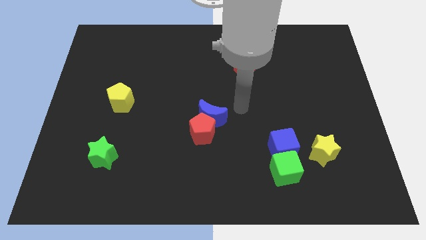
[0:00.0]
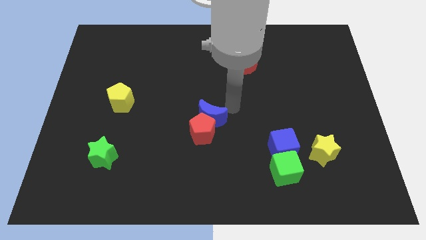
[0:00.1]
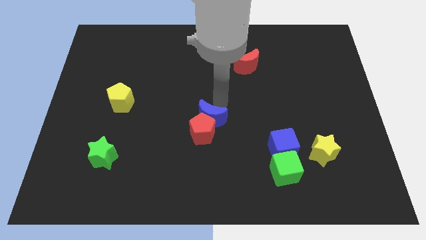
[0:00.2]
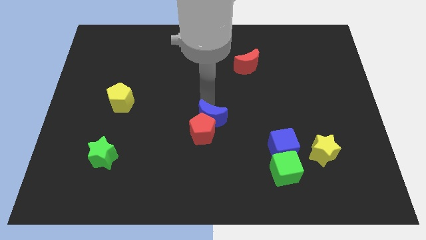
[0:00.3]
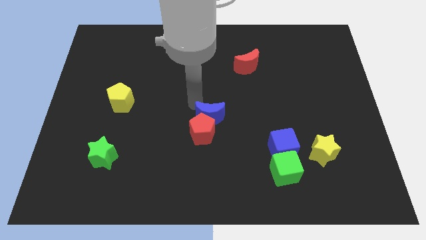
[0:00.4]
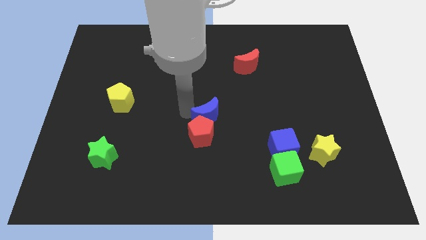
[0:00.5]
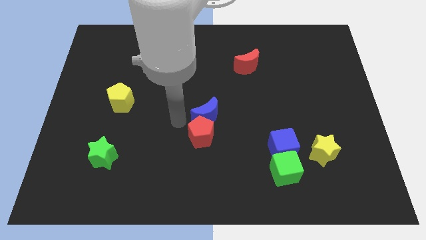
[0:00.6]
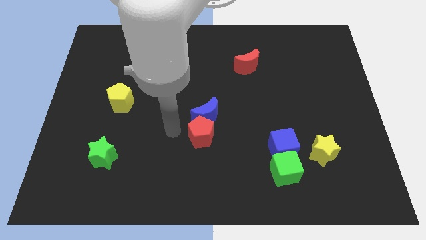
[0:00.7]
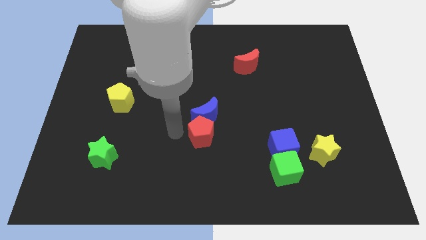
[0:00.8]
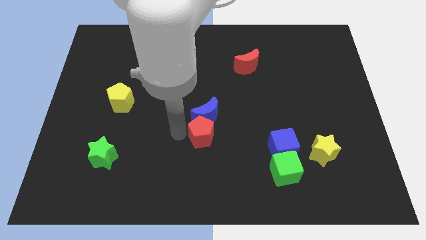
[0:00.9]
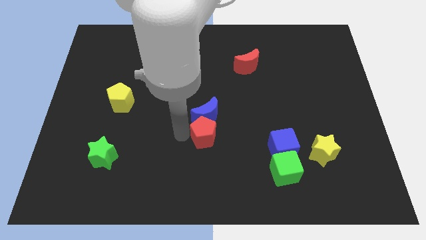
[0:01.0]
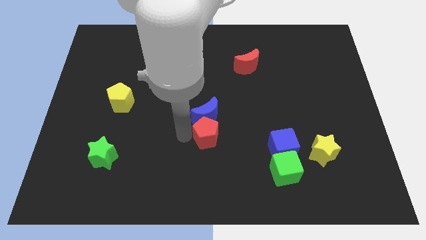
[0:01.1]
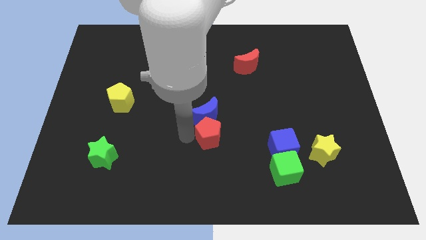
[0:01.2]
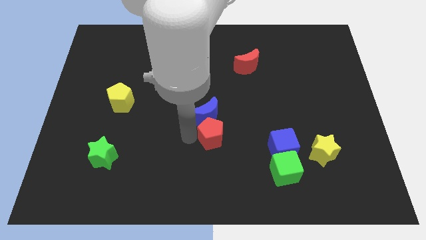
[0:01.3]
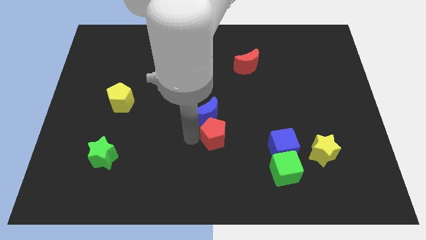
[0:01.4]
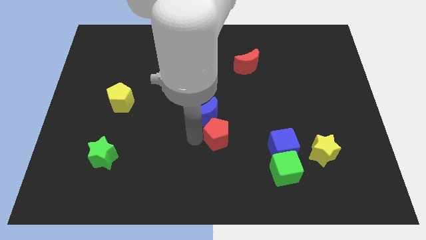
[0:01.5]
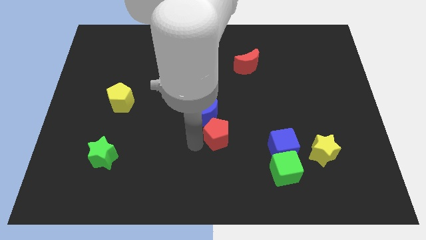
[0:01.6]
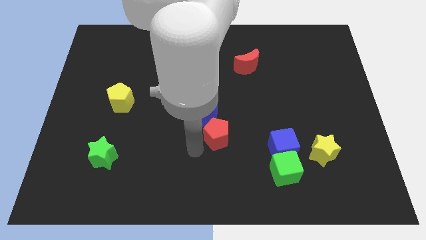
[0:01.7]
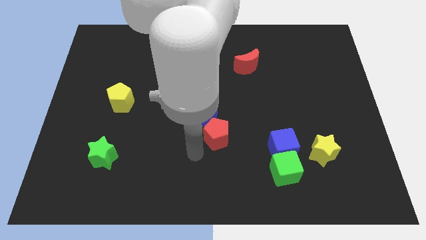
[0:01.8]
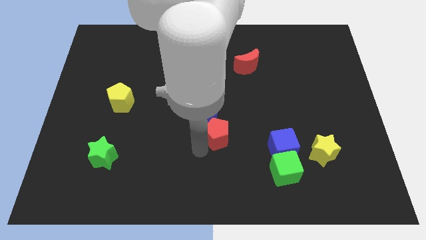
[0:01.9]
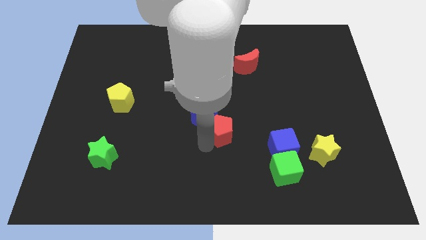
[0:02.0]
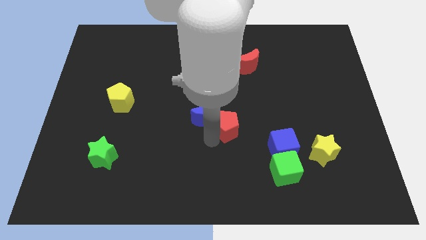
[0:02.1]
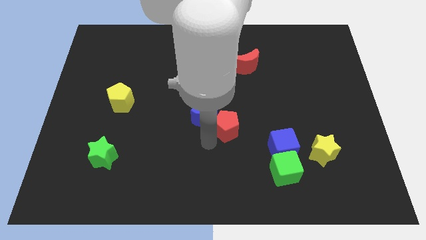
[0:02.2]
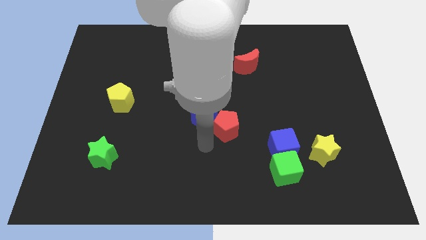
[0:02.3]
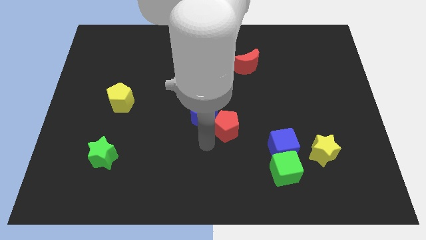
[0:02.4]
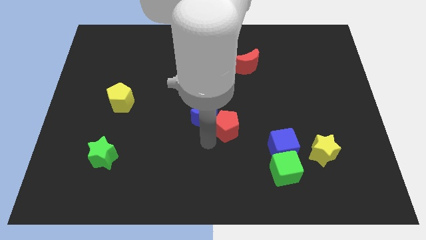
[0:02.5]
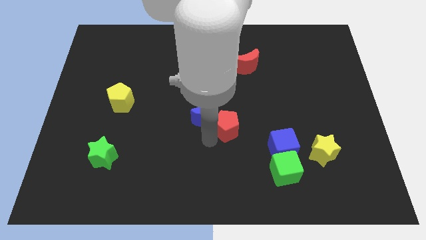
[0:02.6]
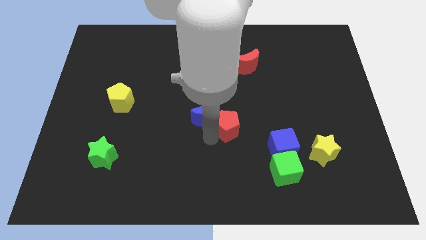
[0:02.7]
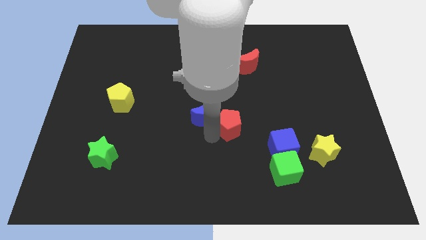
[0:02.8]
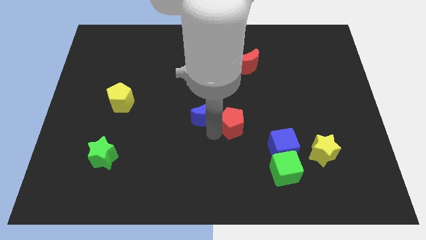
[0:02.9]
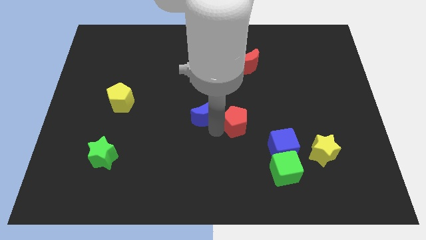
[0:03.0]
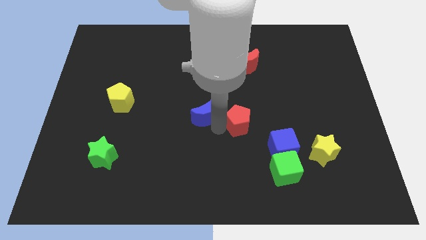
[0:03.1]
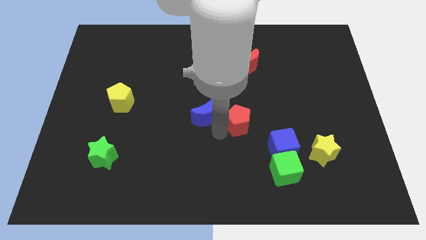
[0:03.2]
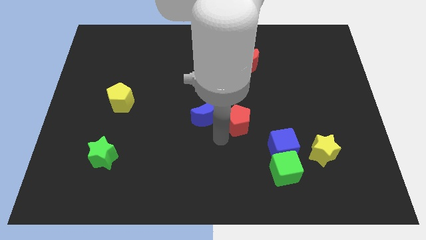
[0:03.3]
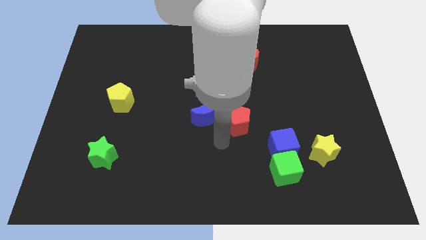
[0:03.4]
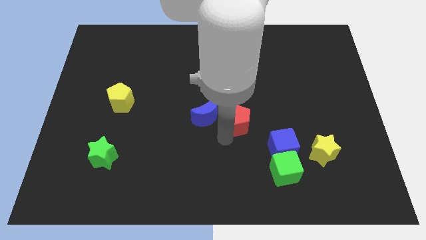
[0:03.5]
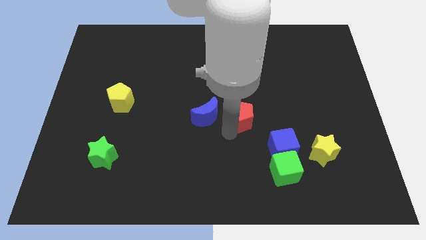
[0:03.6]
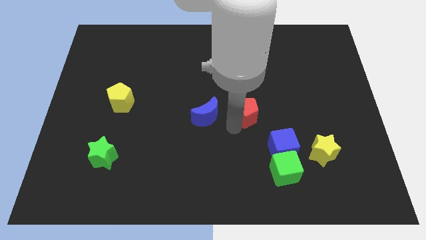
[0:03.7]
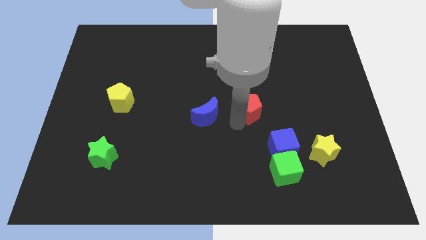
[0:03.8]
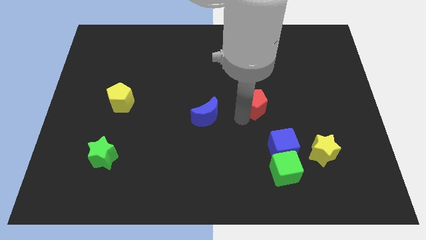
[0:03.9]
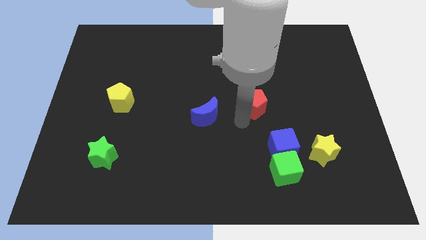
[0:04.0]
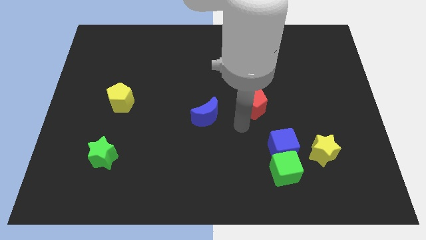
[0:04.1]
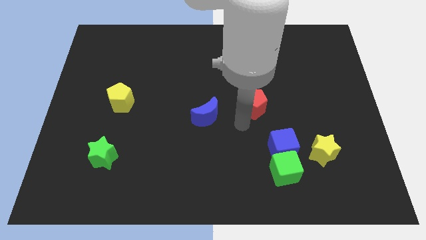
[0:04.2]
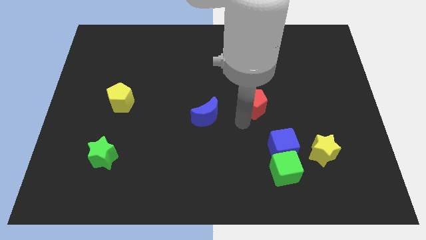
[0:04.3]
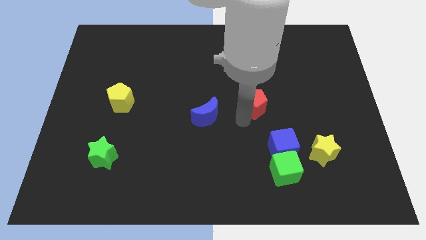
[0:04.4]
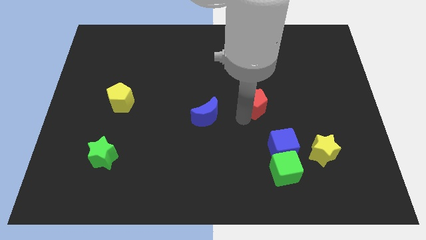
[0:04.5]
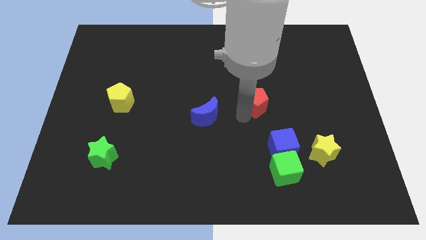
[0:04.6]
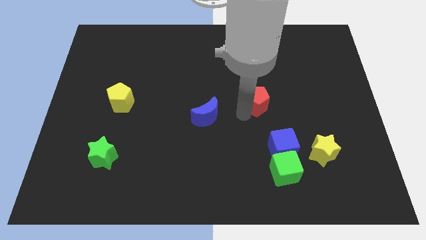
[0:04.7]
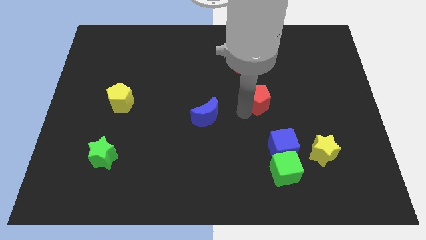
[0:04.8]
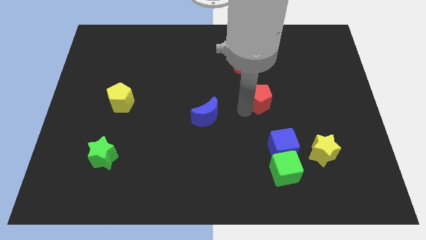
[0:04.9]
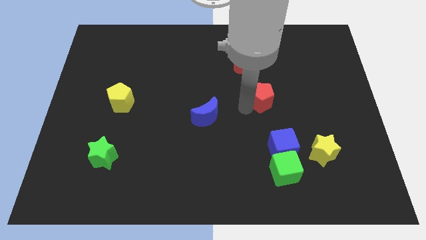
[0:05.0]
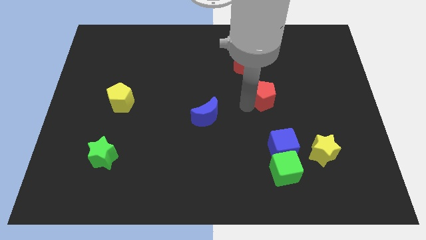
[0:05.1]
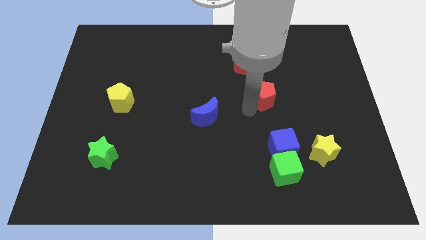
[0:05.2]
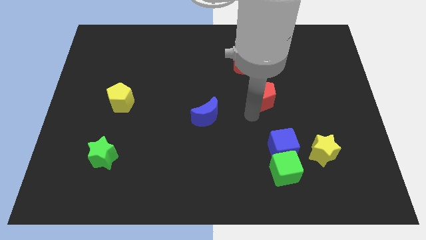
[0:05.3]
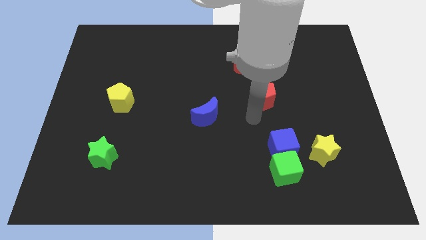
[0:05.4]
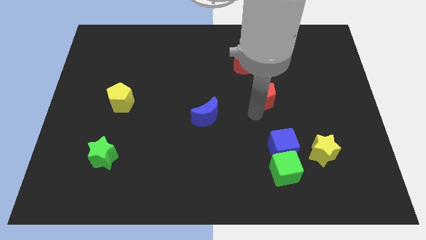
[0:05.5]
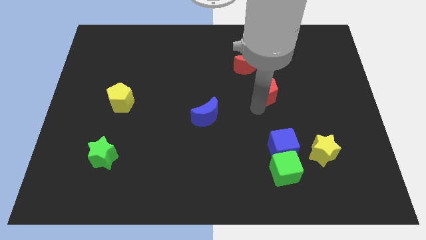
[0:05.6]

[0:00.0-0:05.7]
move the red pentagon to the bottom right of the red moon

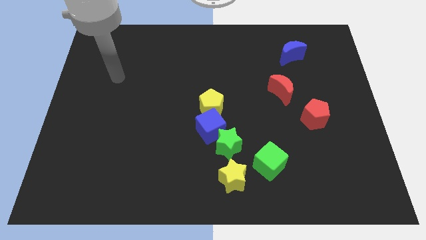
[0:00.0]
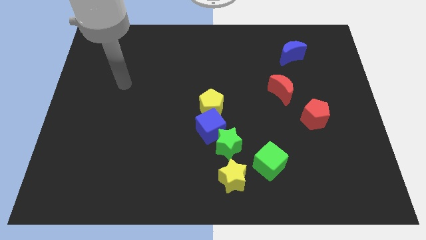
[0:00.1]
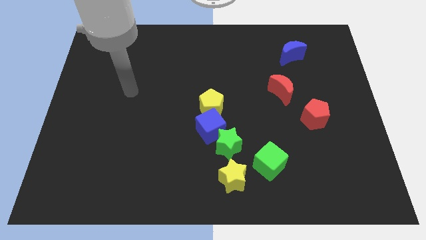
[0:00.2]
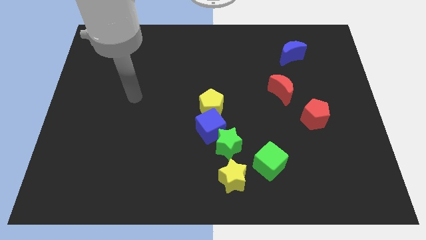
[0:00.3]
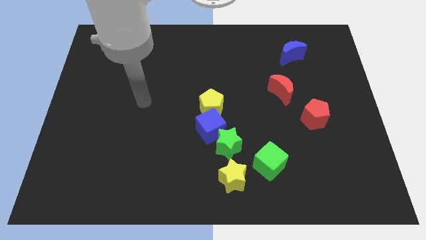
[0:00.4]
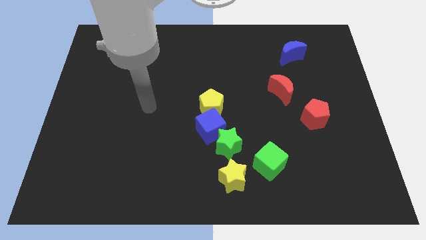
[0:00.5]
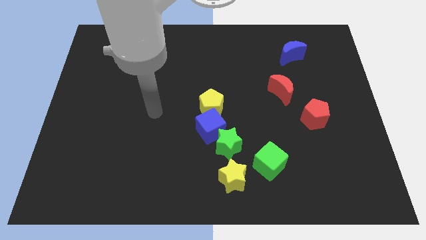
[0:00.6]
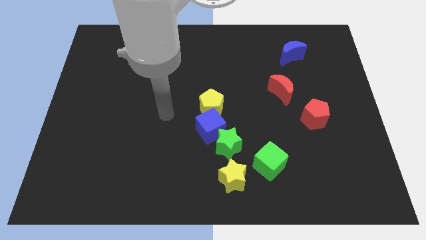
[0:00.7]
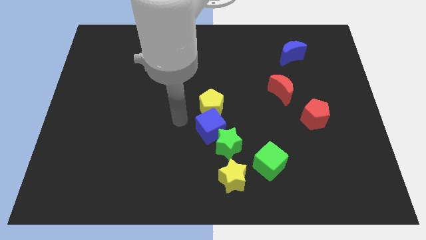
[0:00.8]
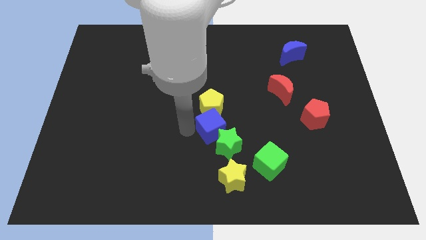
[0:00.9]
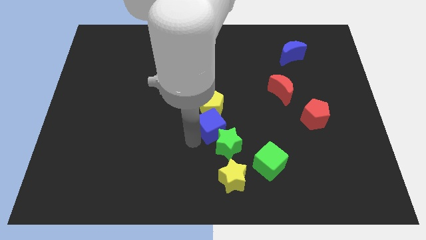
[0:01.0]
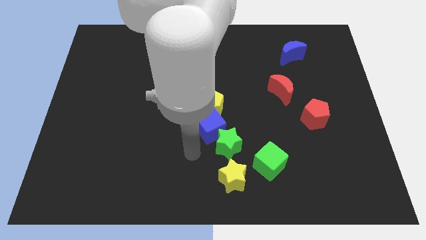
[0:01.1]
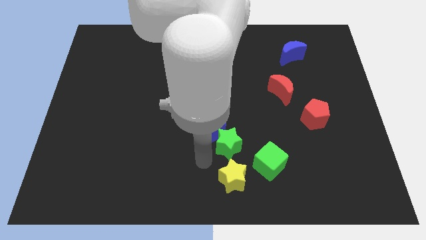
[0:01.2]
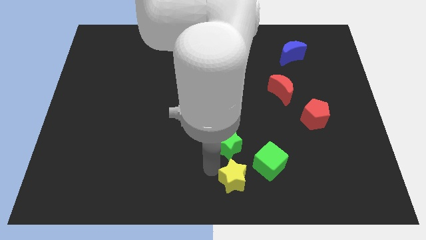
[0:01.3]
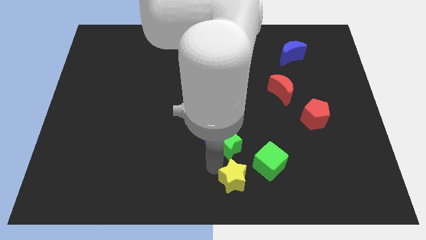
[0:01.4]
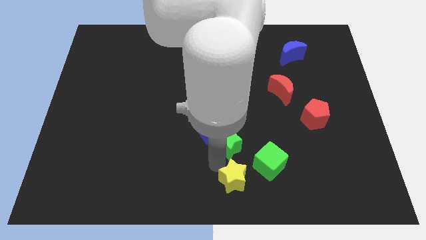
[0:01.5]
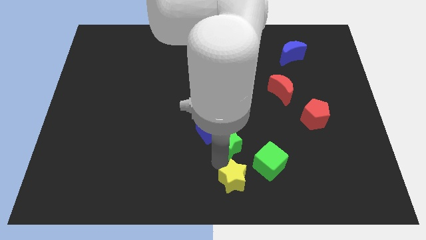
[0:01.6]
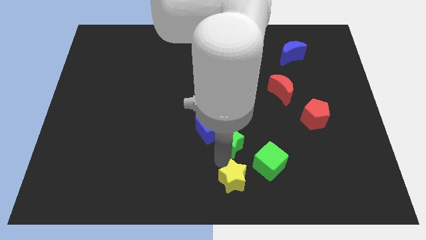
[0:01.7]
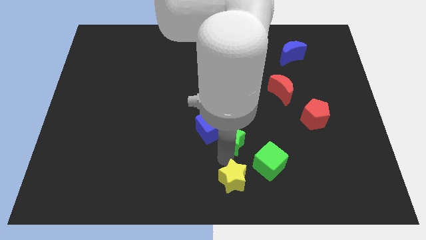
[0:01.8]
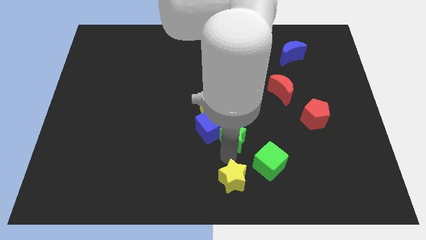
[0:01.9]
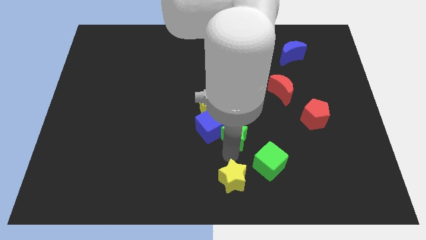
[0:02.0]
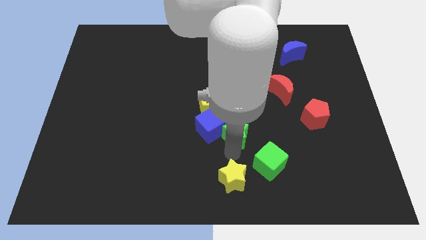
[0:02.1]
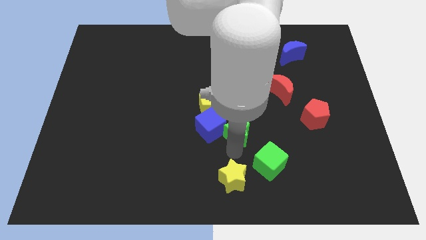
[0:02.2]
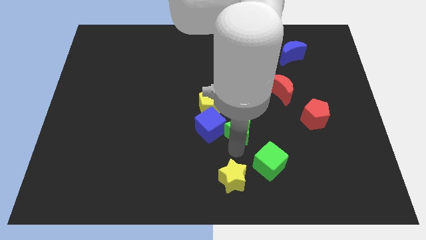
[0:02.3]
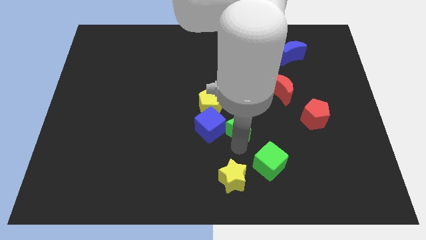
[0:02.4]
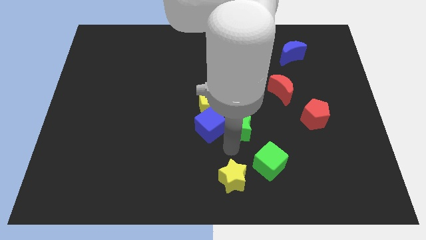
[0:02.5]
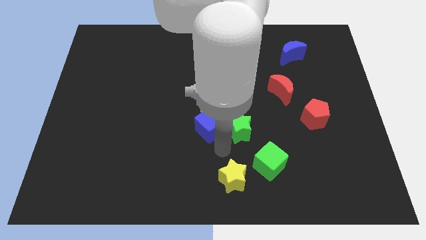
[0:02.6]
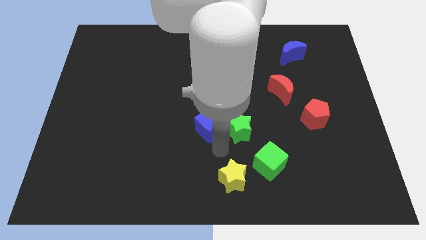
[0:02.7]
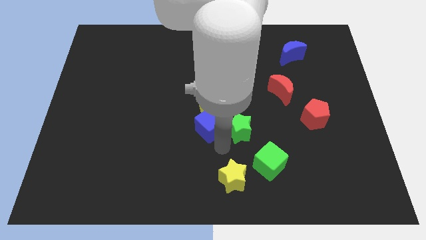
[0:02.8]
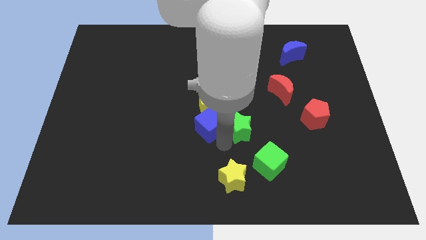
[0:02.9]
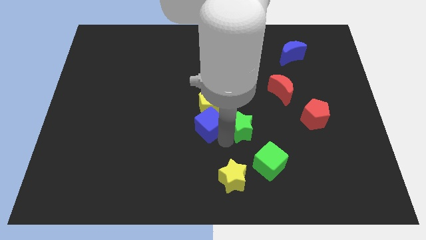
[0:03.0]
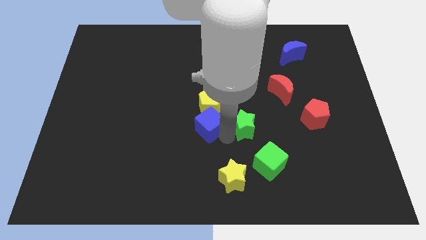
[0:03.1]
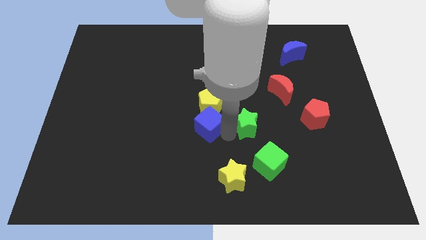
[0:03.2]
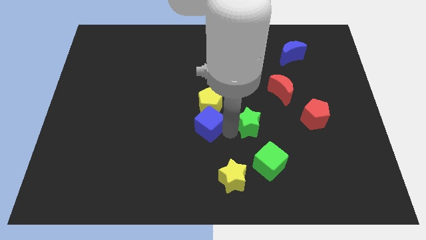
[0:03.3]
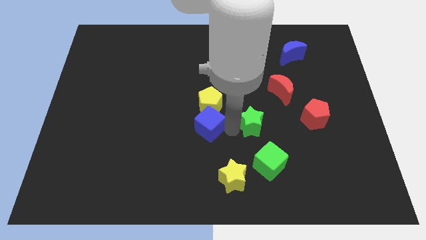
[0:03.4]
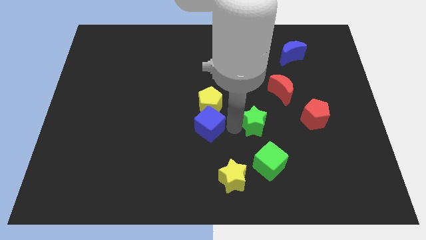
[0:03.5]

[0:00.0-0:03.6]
put the green star to the bottom left side of the red moon
